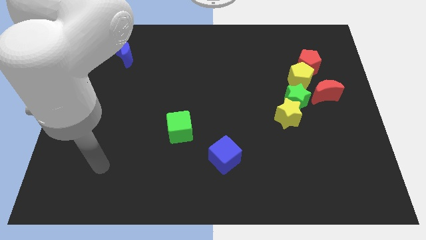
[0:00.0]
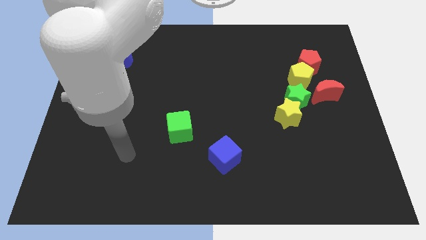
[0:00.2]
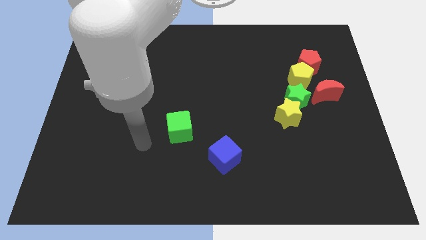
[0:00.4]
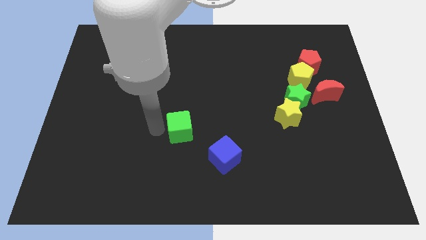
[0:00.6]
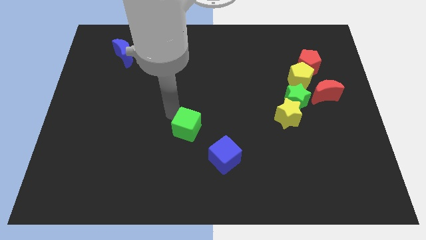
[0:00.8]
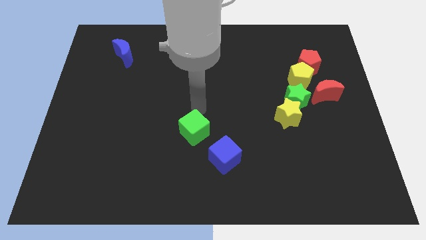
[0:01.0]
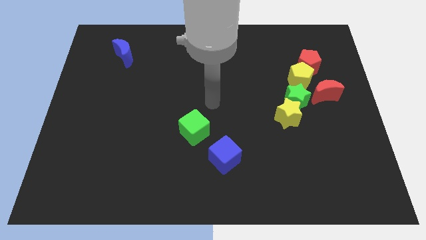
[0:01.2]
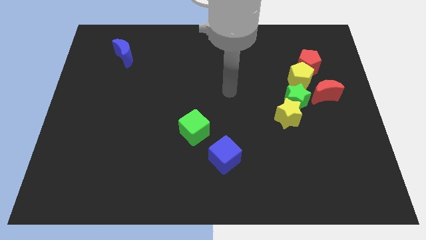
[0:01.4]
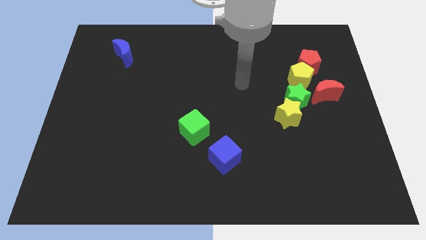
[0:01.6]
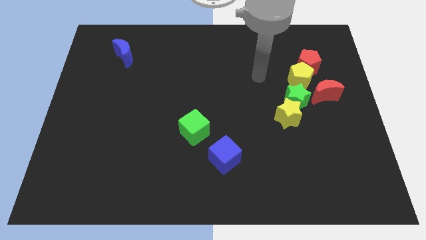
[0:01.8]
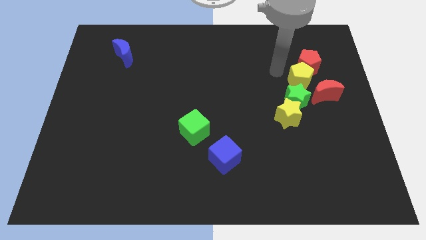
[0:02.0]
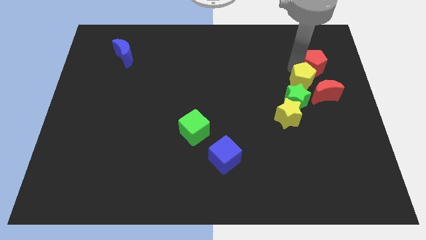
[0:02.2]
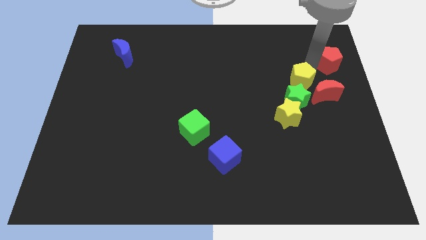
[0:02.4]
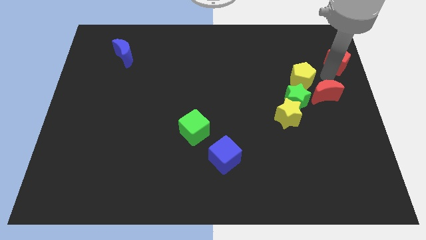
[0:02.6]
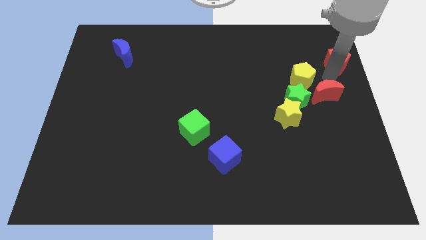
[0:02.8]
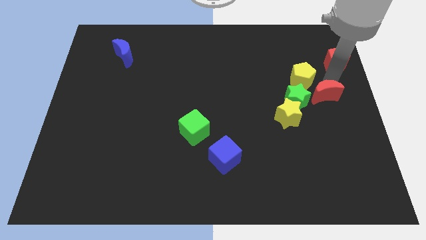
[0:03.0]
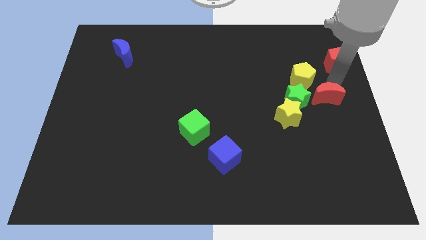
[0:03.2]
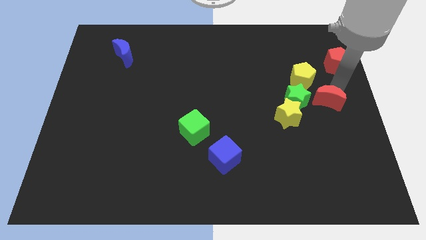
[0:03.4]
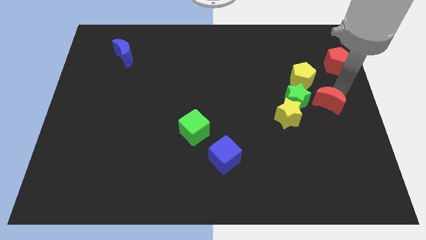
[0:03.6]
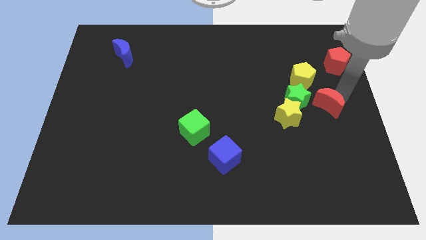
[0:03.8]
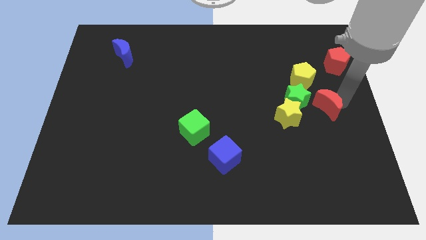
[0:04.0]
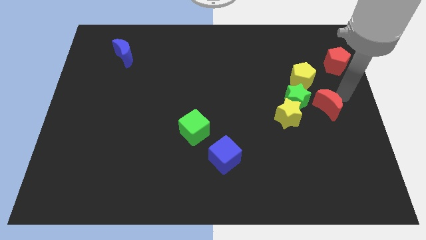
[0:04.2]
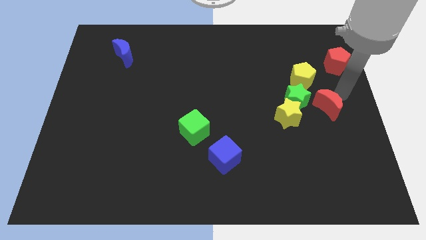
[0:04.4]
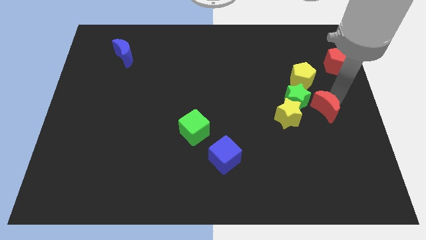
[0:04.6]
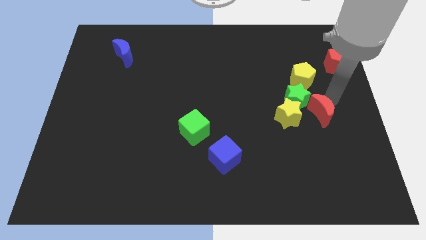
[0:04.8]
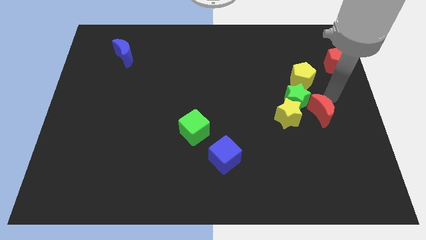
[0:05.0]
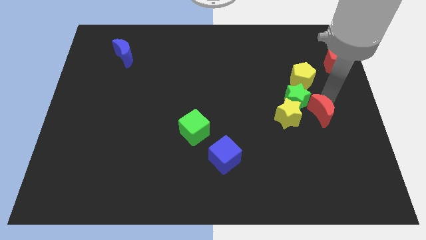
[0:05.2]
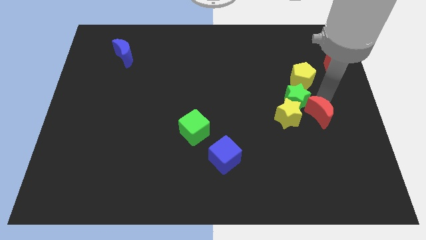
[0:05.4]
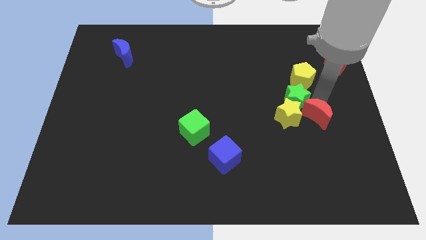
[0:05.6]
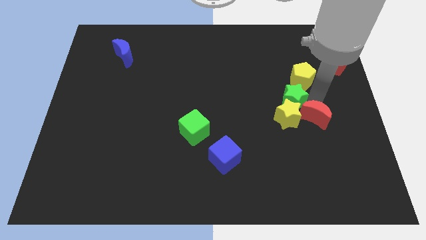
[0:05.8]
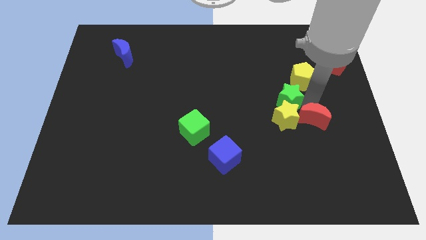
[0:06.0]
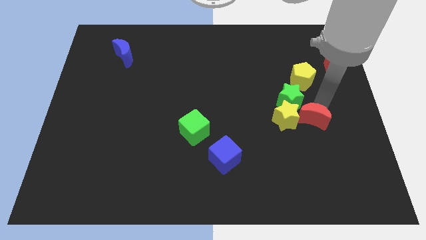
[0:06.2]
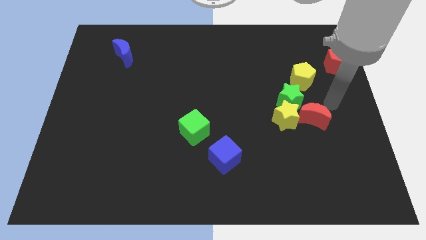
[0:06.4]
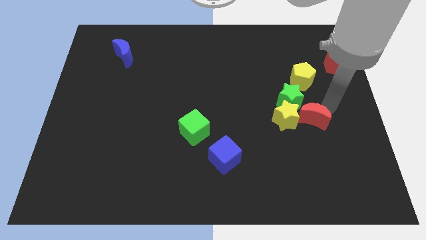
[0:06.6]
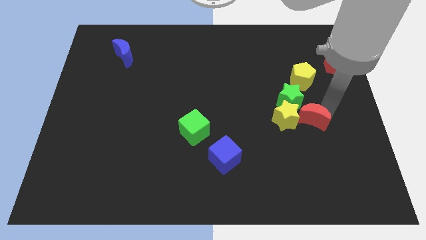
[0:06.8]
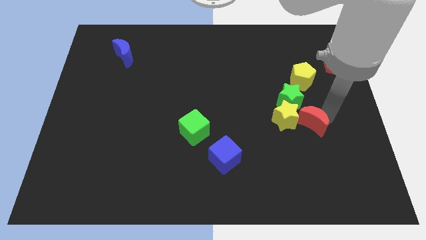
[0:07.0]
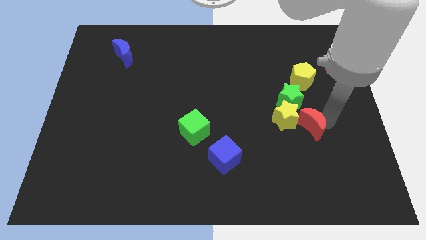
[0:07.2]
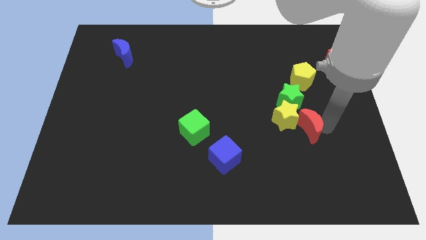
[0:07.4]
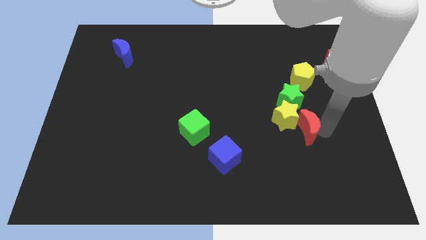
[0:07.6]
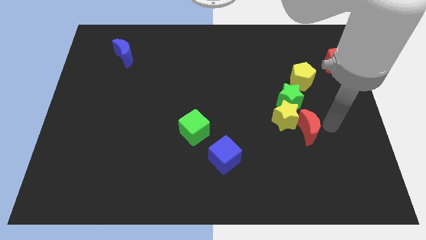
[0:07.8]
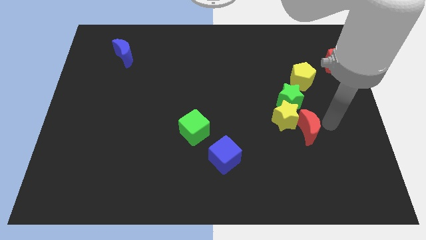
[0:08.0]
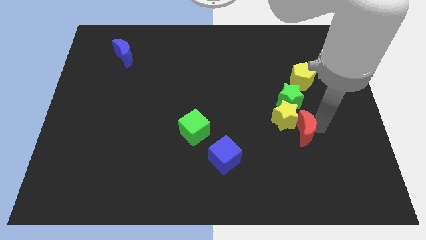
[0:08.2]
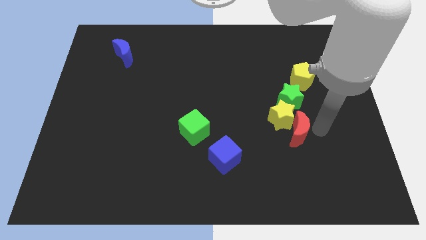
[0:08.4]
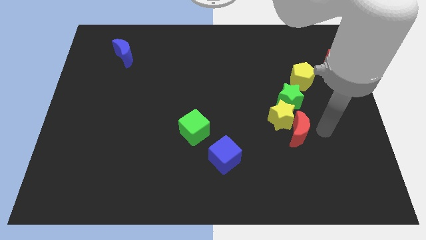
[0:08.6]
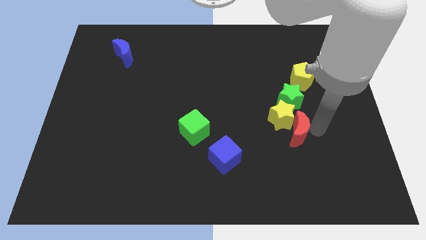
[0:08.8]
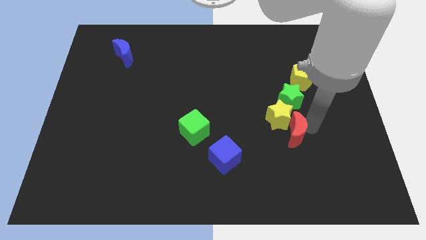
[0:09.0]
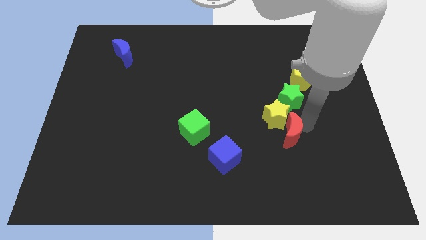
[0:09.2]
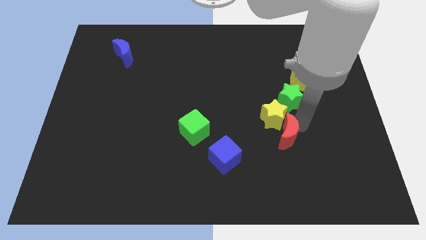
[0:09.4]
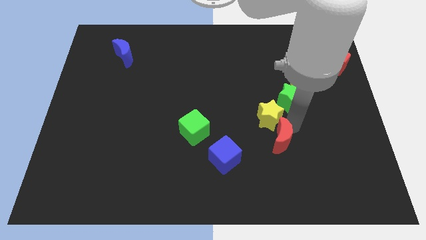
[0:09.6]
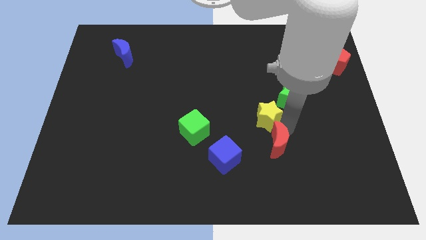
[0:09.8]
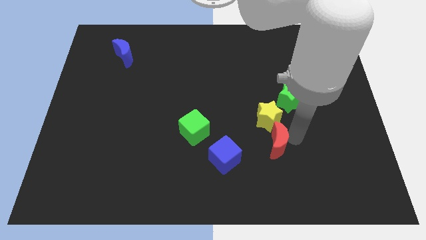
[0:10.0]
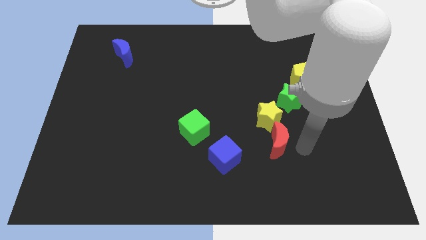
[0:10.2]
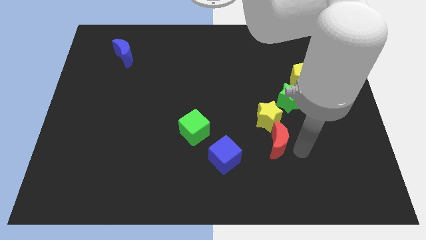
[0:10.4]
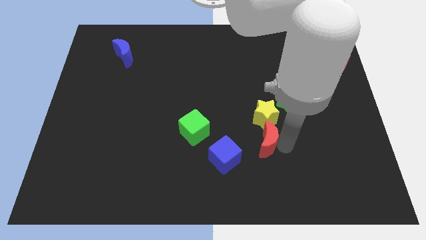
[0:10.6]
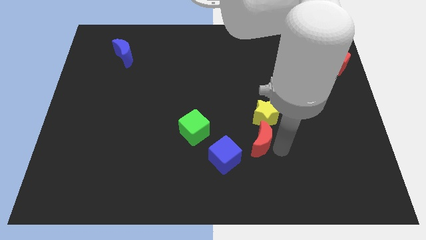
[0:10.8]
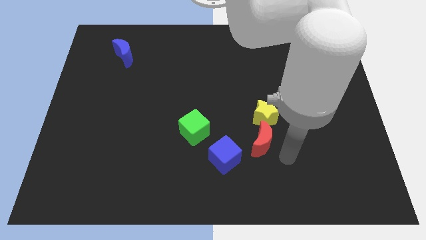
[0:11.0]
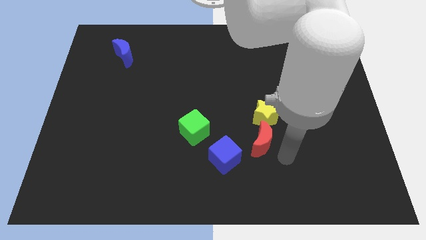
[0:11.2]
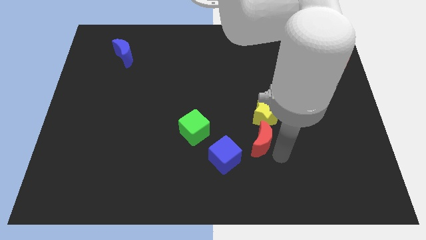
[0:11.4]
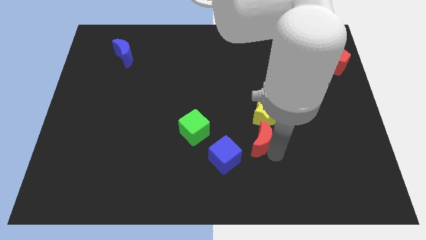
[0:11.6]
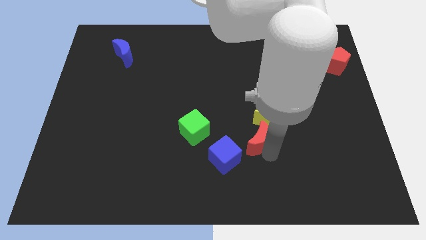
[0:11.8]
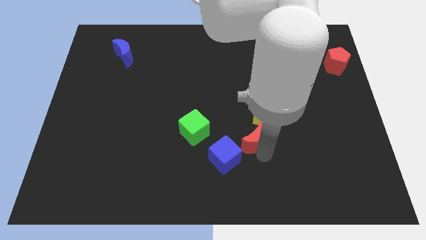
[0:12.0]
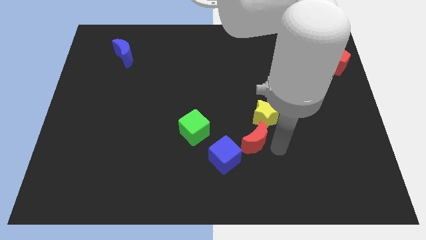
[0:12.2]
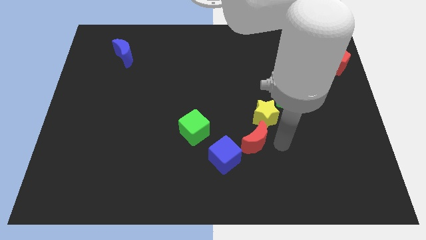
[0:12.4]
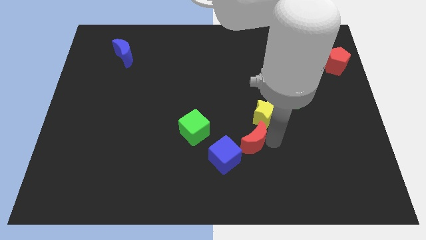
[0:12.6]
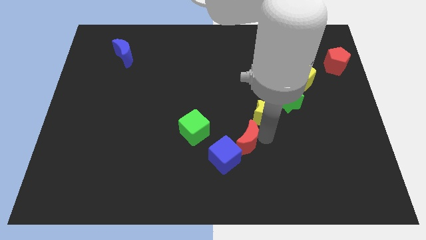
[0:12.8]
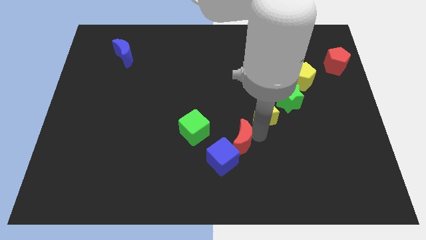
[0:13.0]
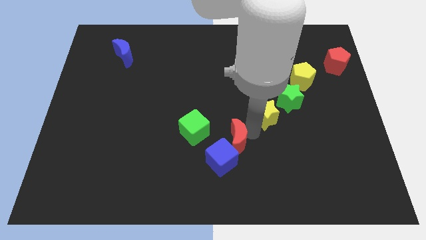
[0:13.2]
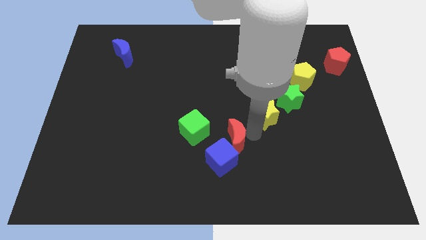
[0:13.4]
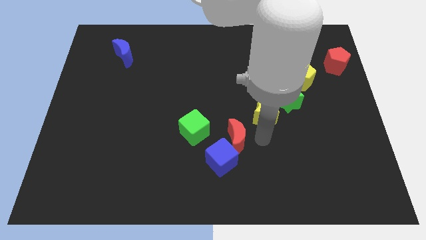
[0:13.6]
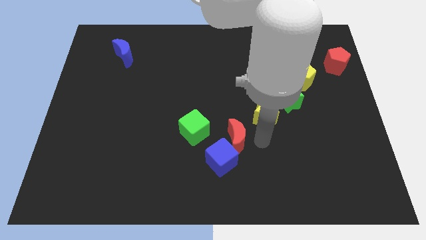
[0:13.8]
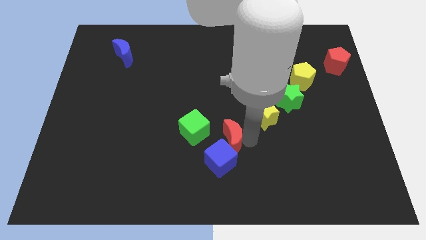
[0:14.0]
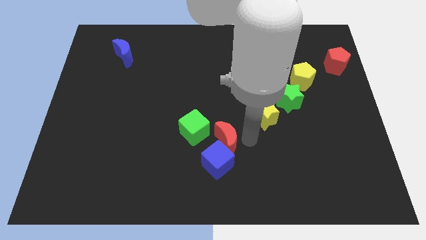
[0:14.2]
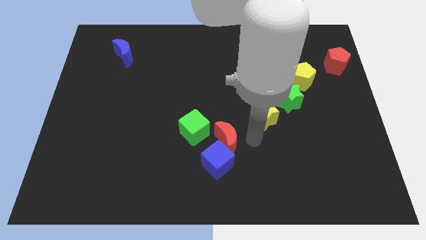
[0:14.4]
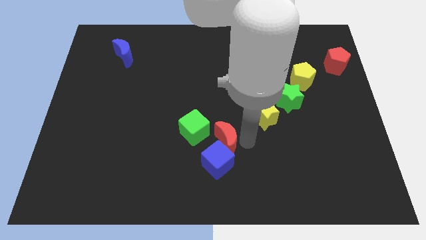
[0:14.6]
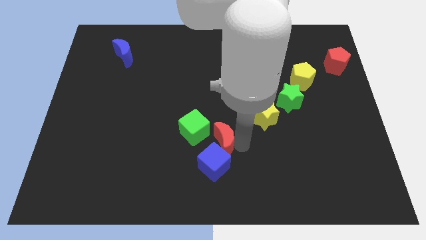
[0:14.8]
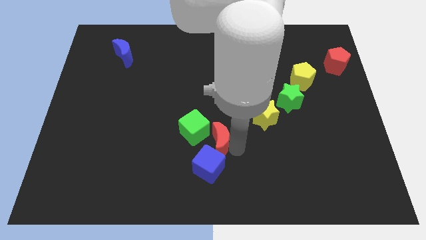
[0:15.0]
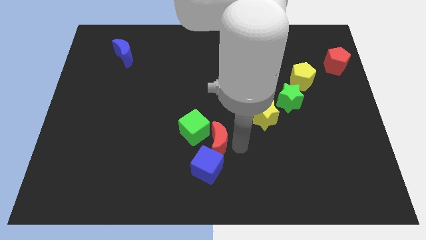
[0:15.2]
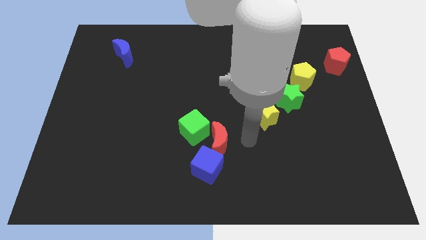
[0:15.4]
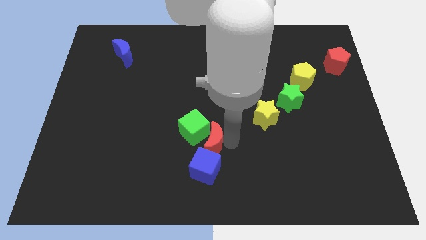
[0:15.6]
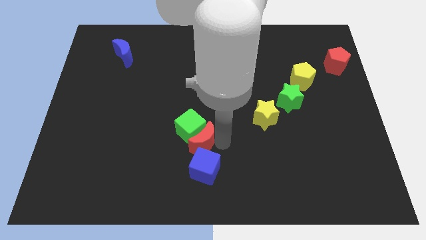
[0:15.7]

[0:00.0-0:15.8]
put the red moon to the top left side of the blue cube
